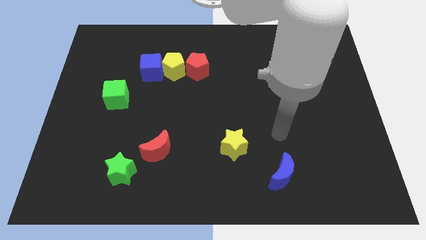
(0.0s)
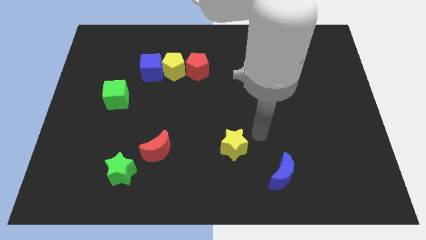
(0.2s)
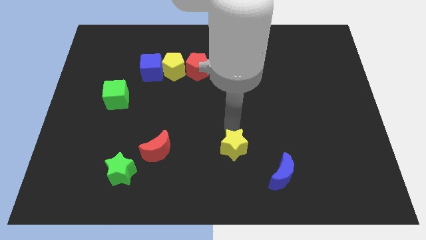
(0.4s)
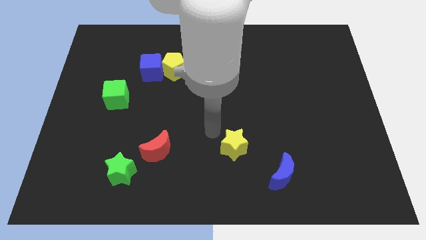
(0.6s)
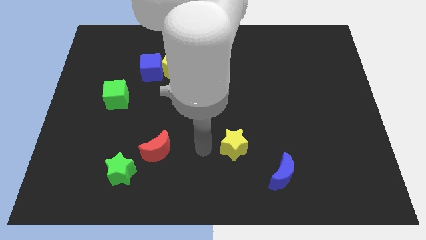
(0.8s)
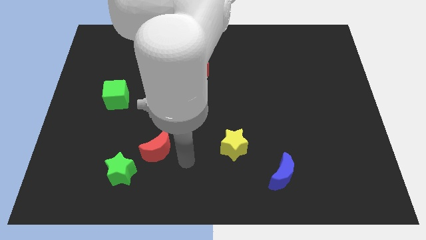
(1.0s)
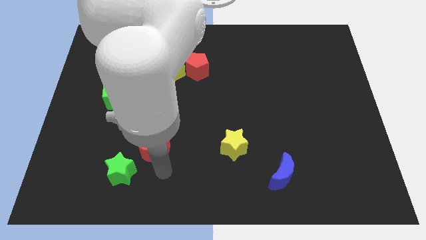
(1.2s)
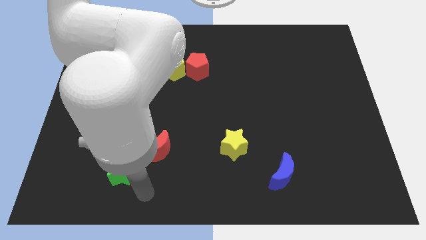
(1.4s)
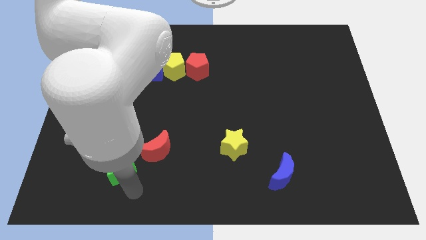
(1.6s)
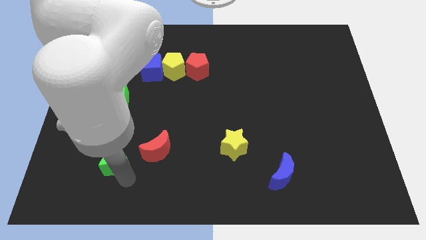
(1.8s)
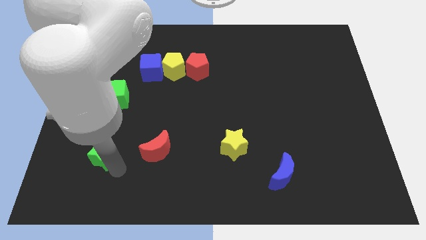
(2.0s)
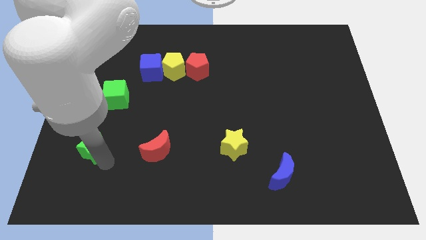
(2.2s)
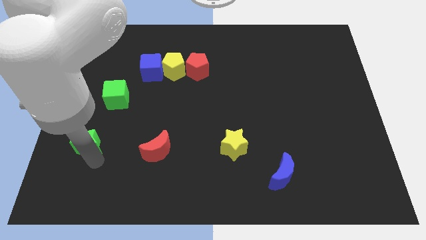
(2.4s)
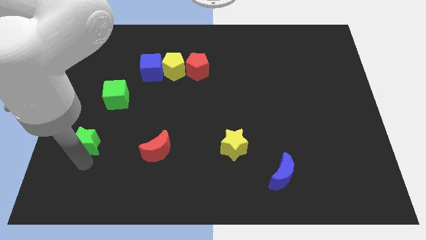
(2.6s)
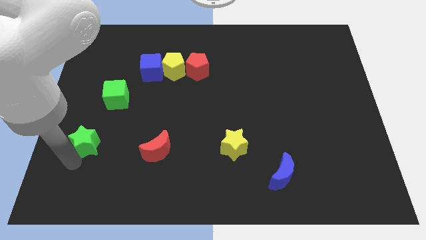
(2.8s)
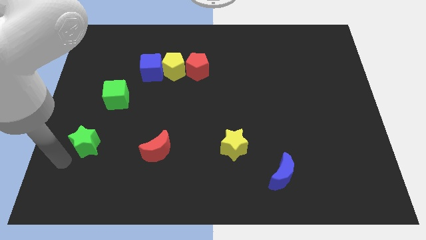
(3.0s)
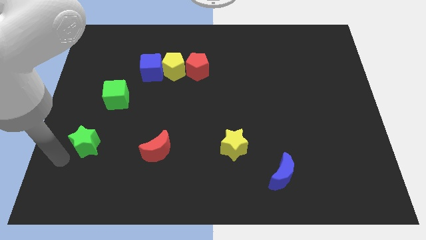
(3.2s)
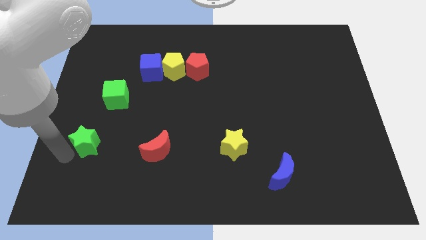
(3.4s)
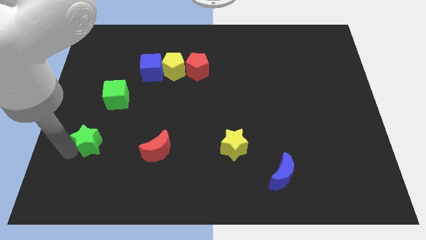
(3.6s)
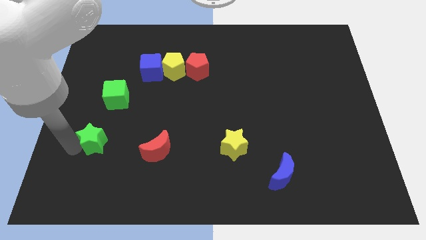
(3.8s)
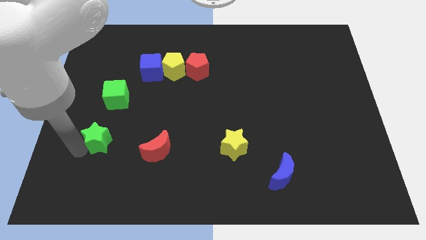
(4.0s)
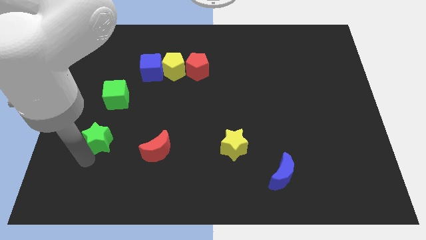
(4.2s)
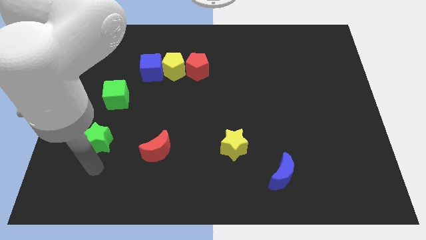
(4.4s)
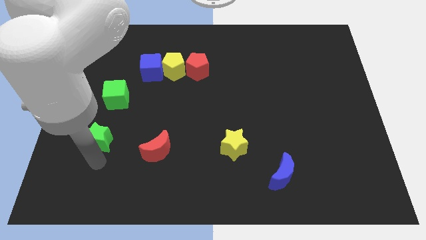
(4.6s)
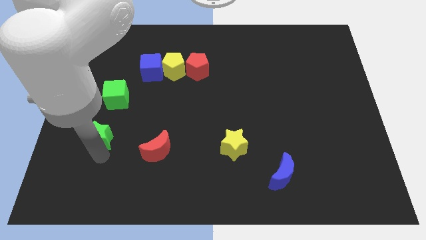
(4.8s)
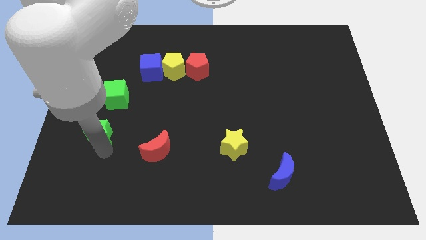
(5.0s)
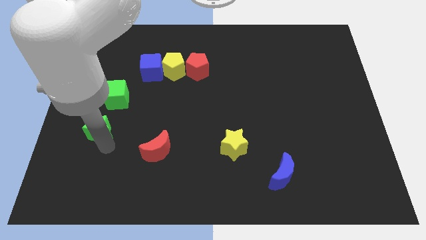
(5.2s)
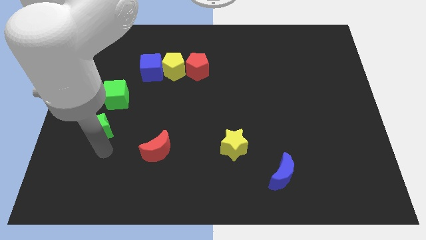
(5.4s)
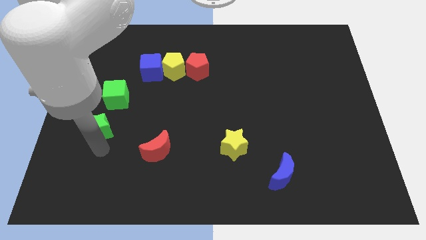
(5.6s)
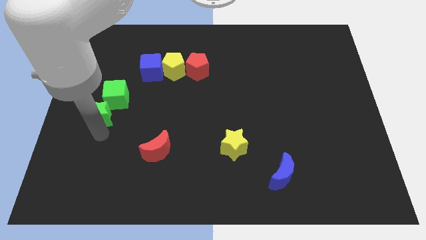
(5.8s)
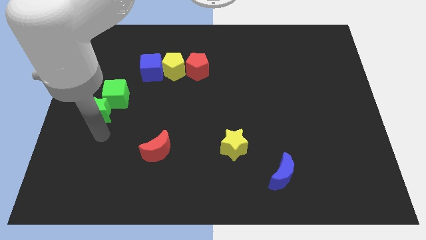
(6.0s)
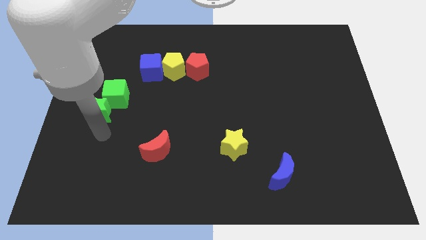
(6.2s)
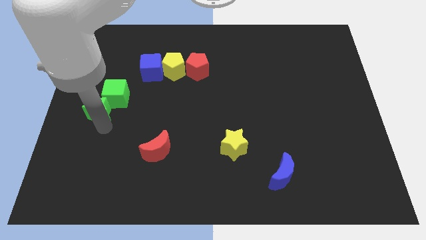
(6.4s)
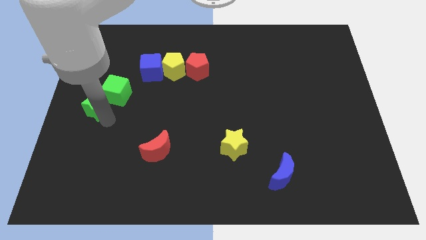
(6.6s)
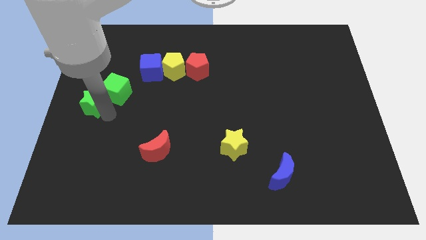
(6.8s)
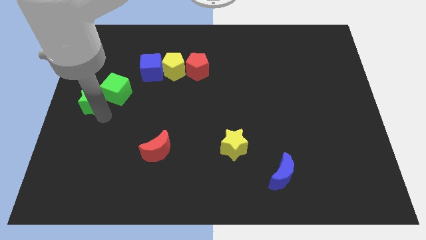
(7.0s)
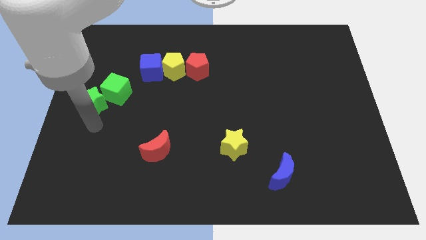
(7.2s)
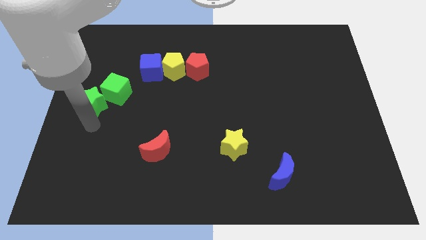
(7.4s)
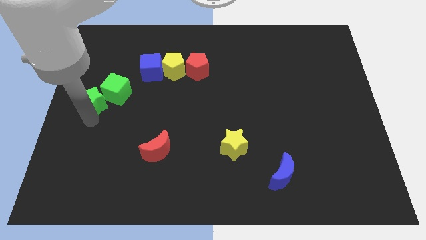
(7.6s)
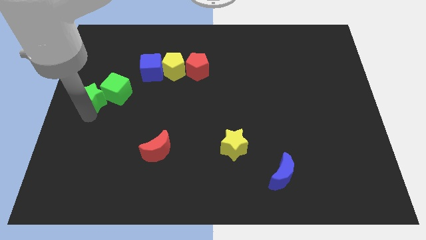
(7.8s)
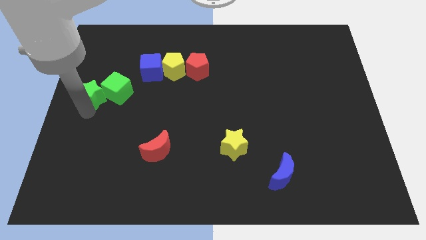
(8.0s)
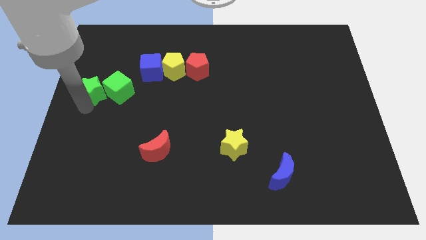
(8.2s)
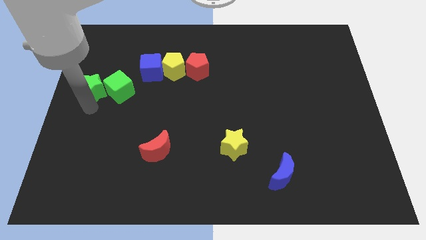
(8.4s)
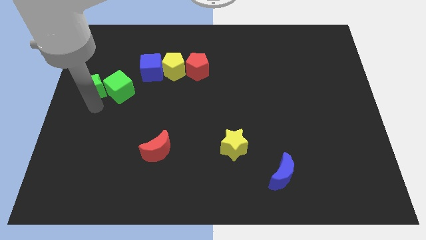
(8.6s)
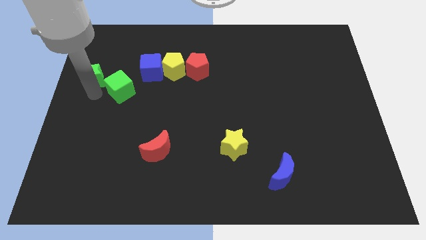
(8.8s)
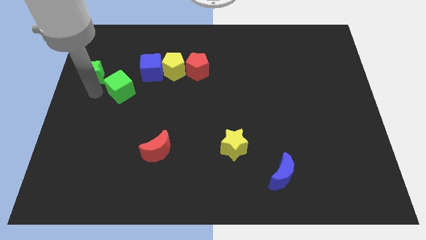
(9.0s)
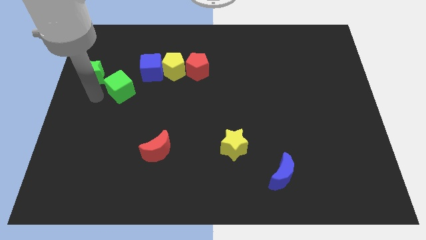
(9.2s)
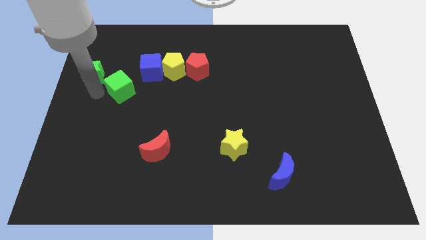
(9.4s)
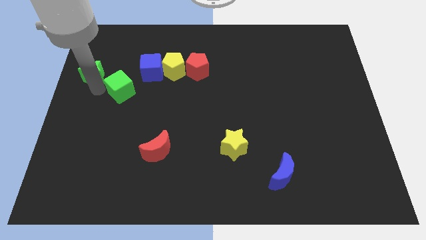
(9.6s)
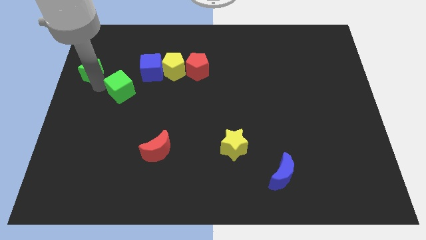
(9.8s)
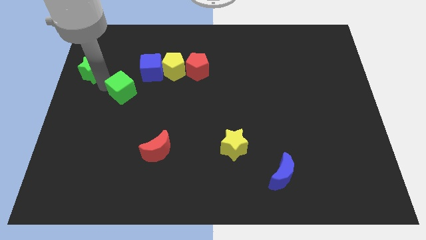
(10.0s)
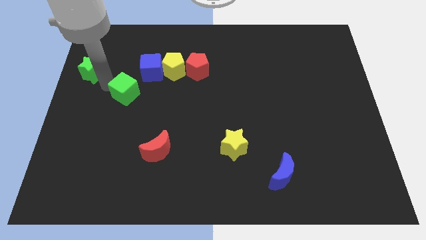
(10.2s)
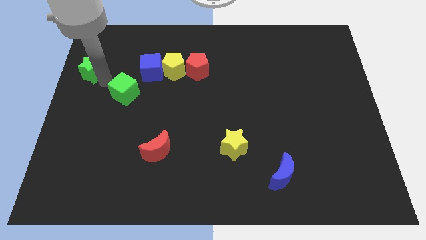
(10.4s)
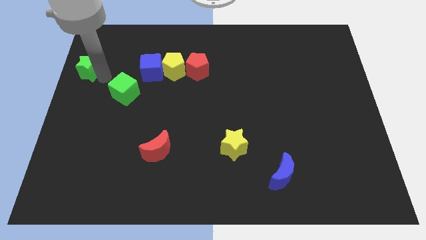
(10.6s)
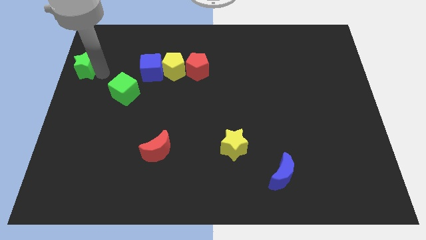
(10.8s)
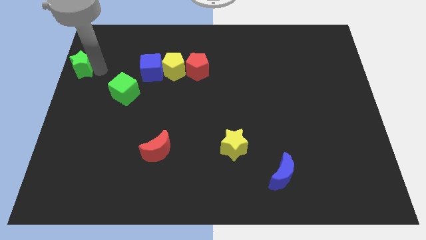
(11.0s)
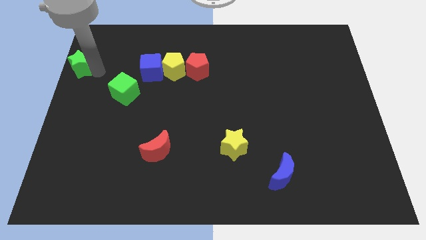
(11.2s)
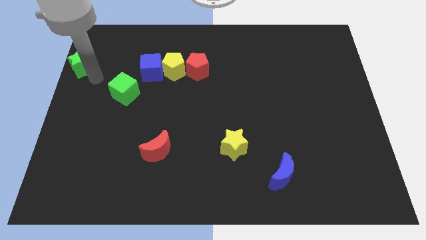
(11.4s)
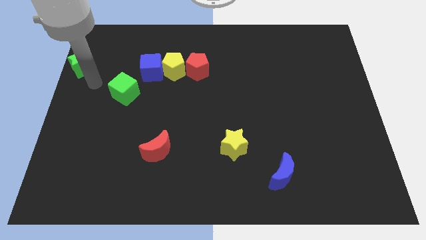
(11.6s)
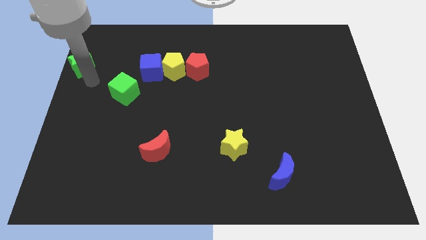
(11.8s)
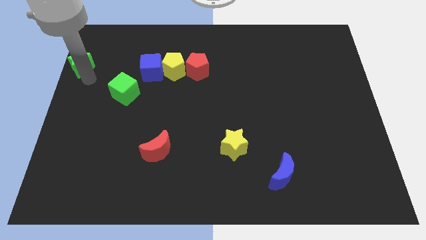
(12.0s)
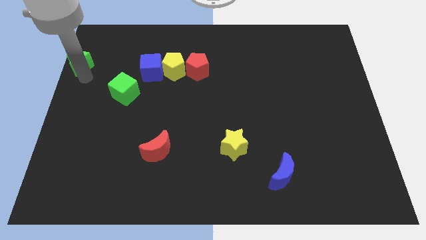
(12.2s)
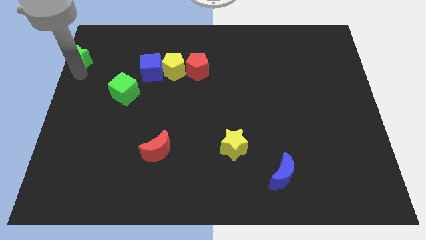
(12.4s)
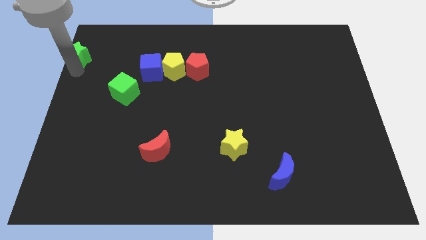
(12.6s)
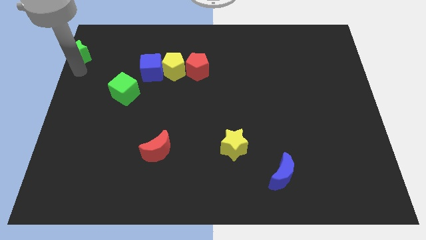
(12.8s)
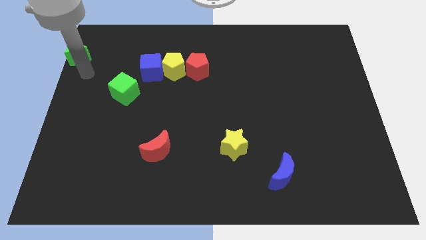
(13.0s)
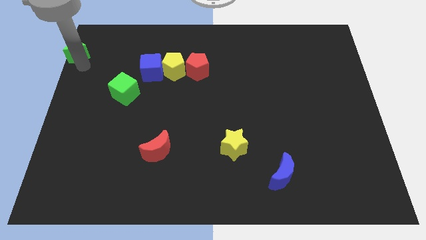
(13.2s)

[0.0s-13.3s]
push the green star to the top left corner

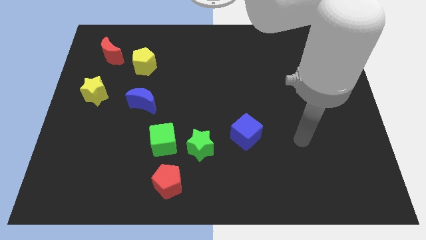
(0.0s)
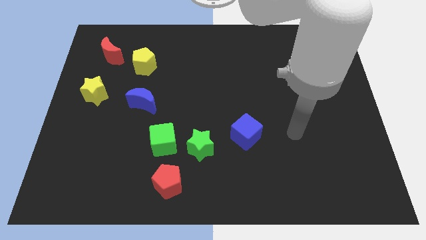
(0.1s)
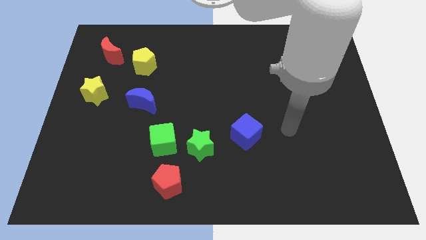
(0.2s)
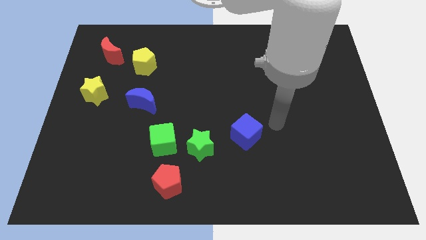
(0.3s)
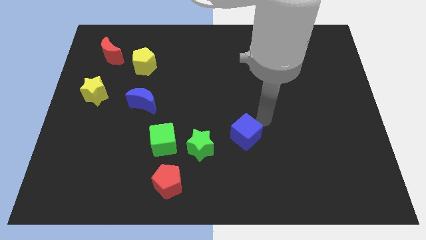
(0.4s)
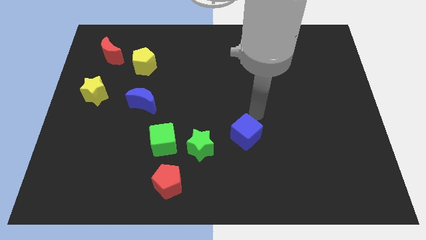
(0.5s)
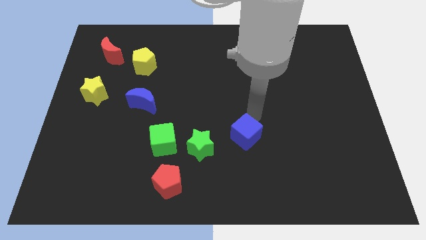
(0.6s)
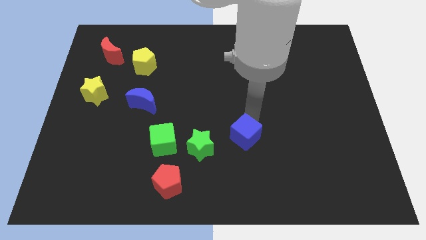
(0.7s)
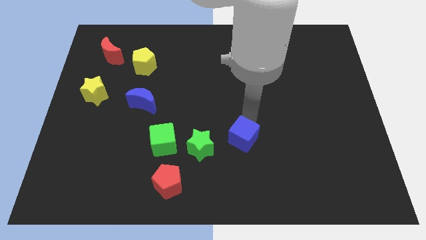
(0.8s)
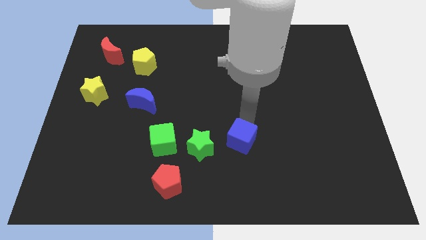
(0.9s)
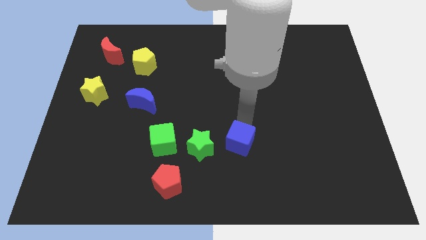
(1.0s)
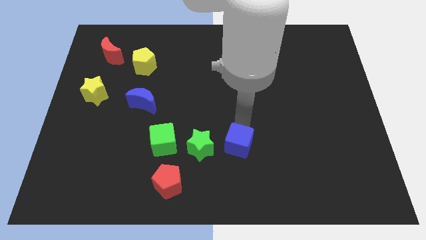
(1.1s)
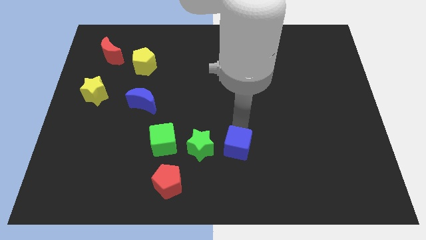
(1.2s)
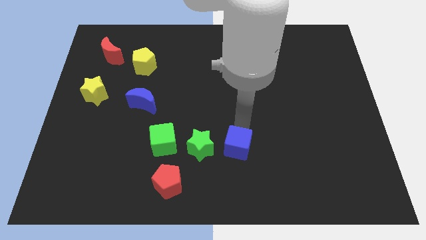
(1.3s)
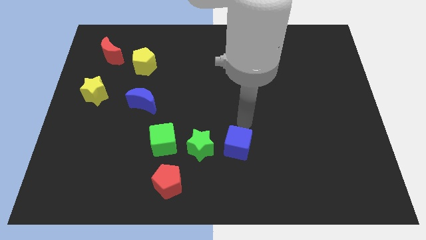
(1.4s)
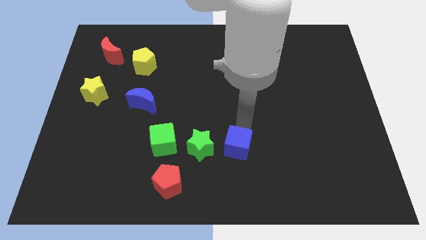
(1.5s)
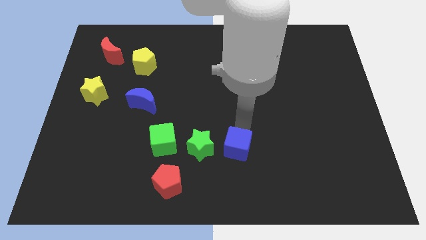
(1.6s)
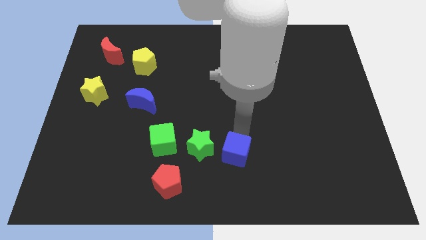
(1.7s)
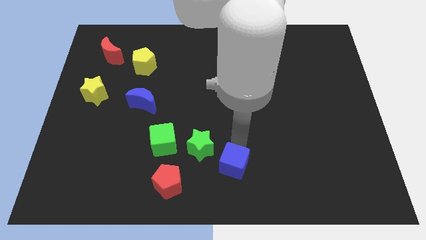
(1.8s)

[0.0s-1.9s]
put the blue cube to the bottom
